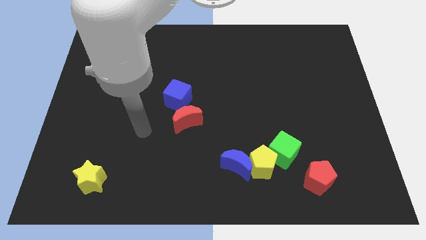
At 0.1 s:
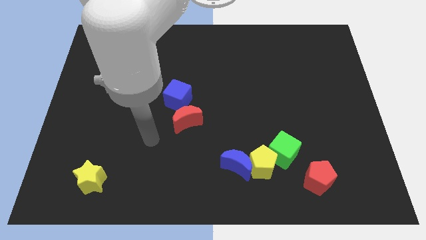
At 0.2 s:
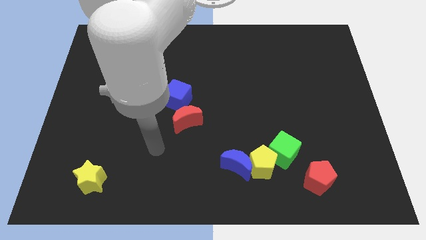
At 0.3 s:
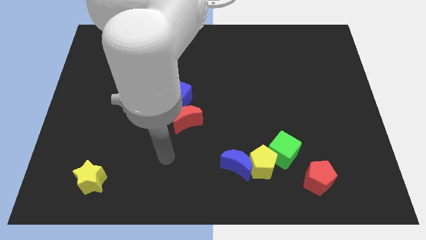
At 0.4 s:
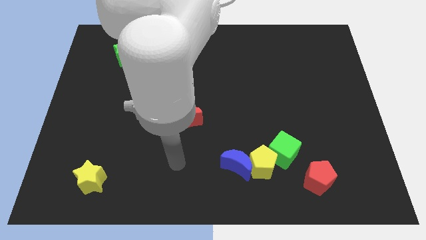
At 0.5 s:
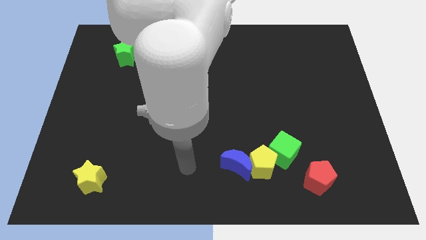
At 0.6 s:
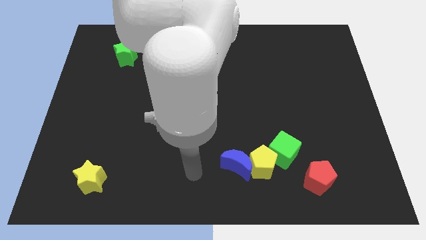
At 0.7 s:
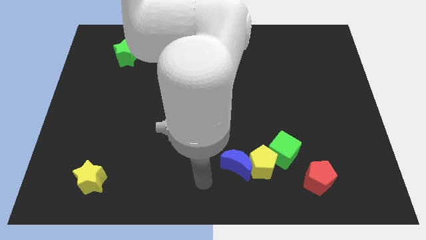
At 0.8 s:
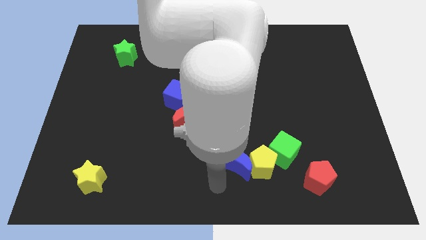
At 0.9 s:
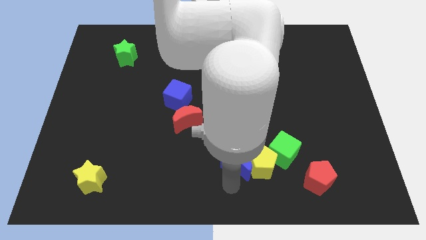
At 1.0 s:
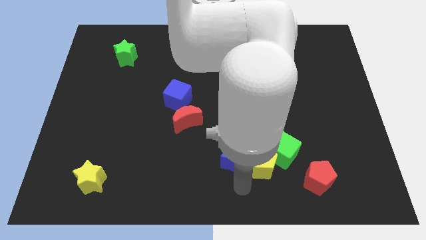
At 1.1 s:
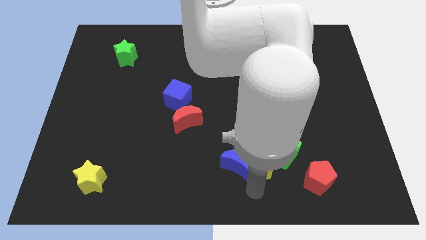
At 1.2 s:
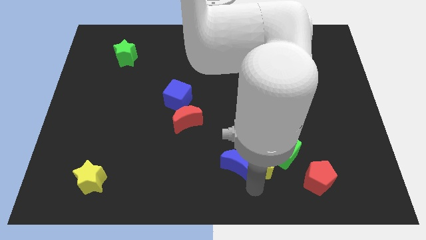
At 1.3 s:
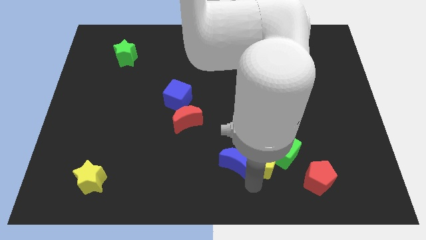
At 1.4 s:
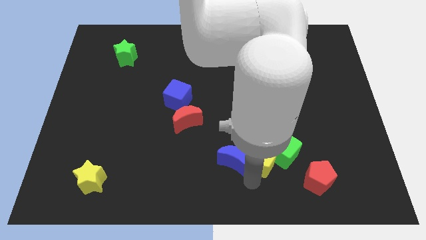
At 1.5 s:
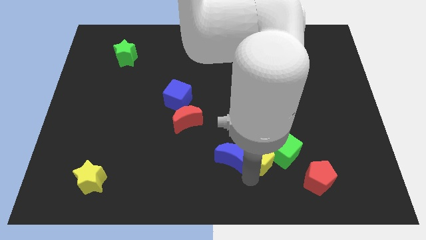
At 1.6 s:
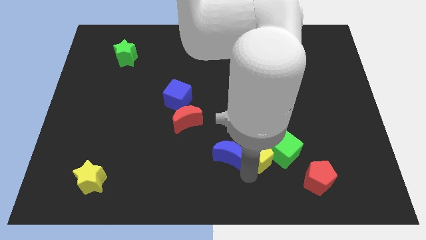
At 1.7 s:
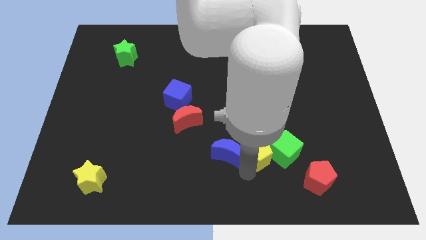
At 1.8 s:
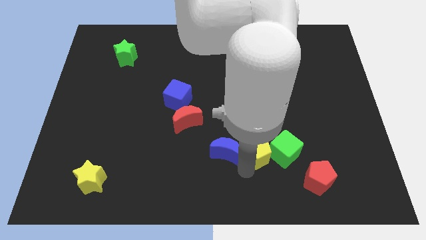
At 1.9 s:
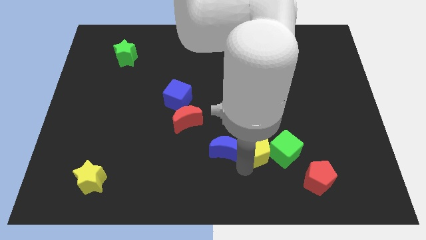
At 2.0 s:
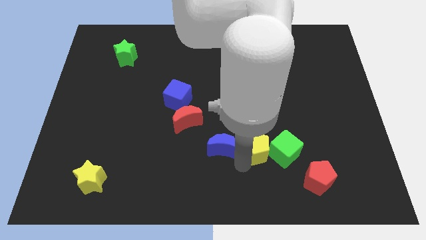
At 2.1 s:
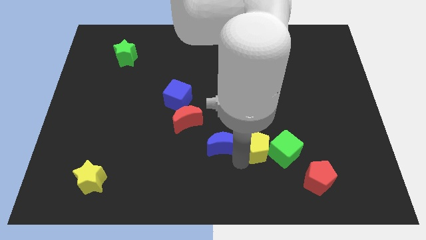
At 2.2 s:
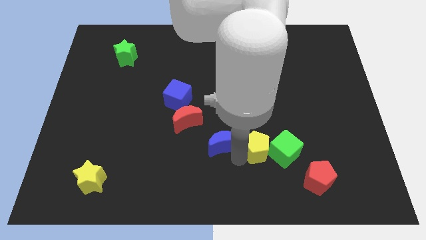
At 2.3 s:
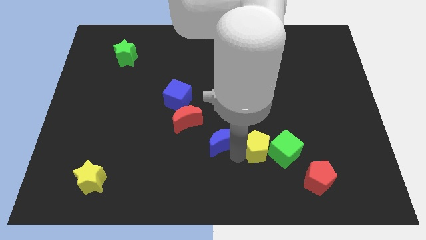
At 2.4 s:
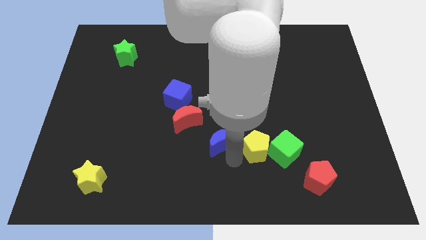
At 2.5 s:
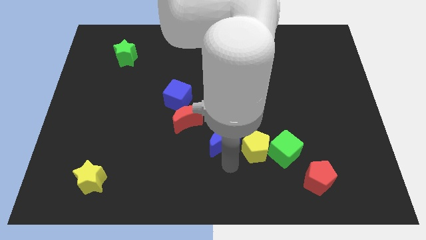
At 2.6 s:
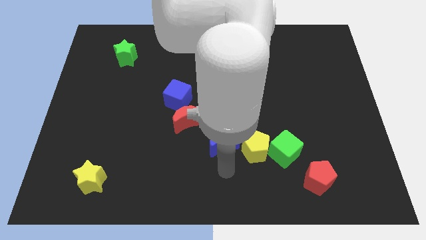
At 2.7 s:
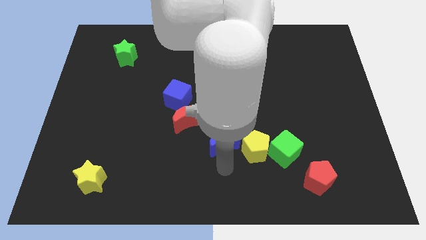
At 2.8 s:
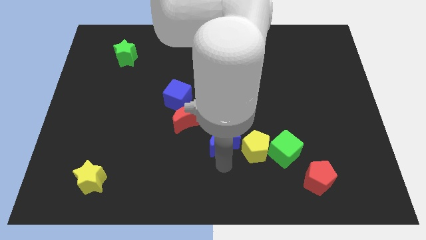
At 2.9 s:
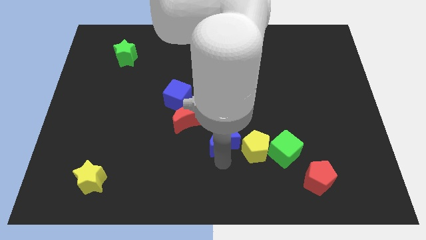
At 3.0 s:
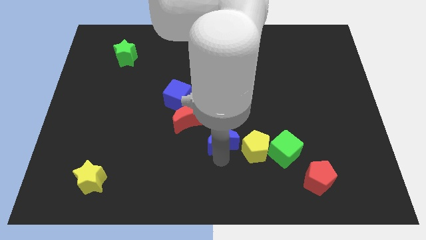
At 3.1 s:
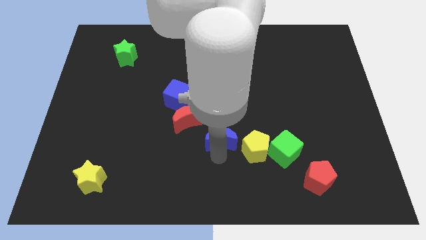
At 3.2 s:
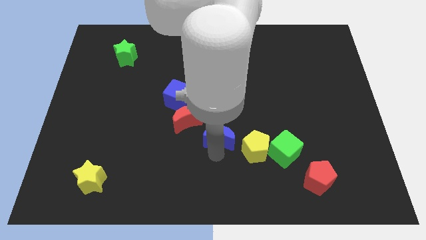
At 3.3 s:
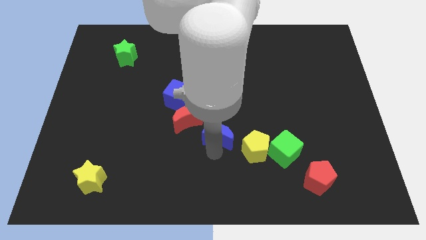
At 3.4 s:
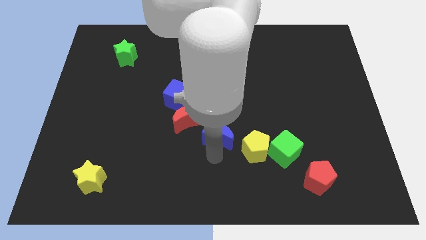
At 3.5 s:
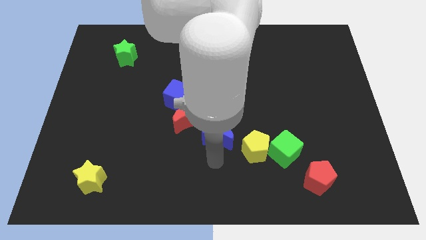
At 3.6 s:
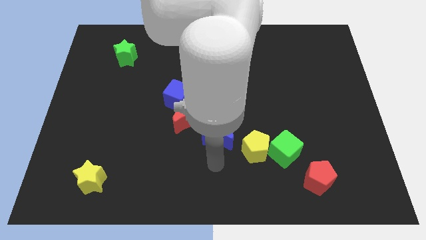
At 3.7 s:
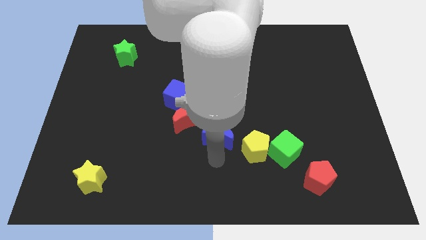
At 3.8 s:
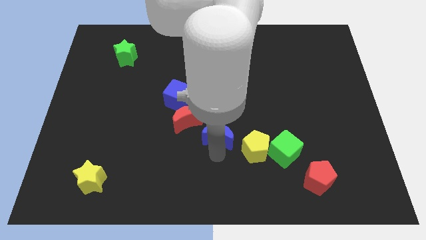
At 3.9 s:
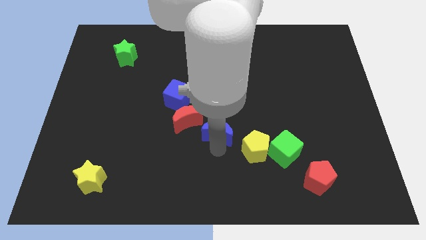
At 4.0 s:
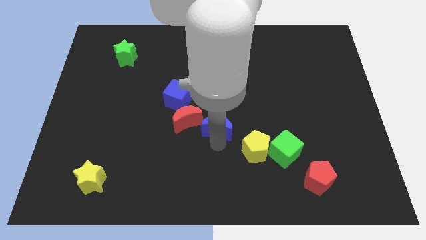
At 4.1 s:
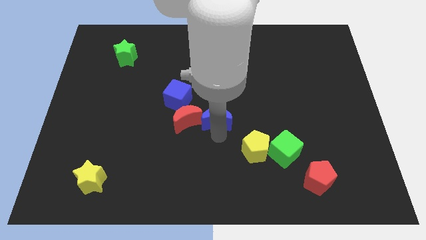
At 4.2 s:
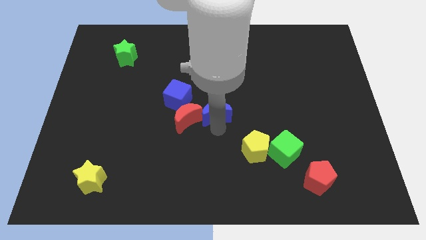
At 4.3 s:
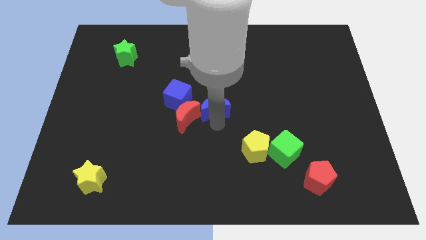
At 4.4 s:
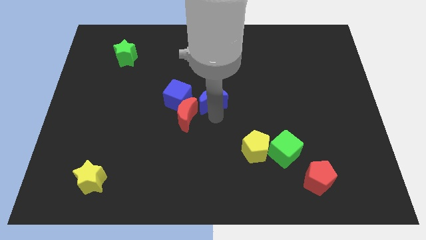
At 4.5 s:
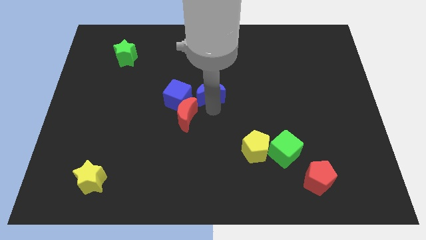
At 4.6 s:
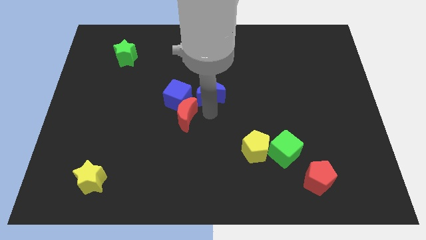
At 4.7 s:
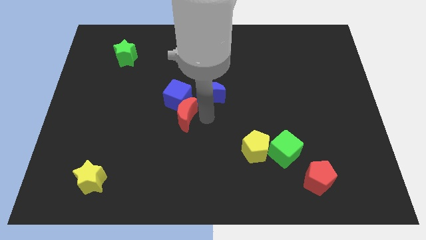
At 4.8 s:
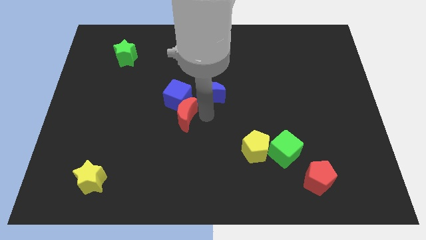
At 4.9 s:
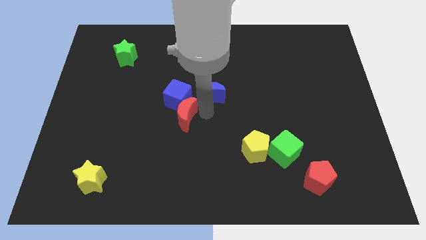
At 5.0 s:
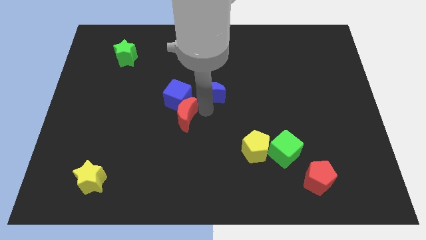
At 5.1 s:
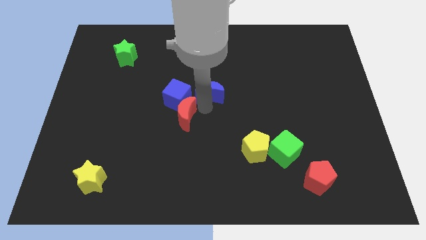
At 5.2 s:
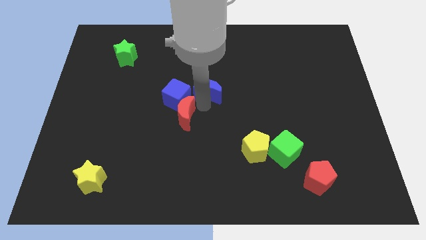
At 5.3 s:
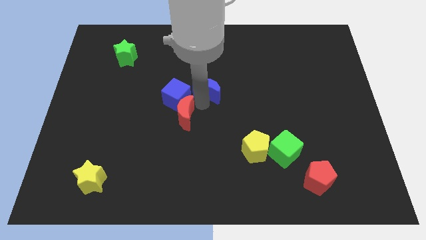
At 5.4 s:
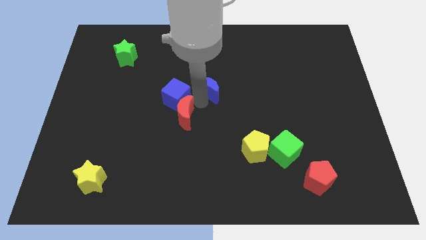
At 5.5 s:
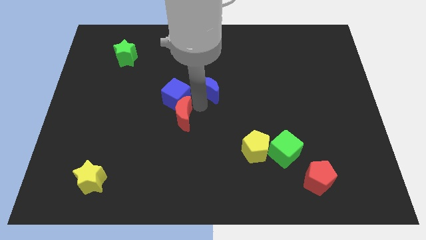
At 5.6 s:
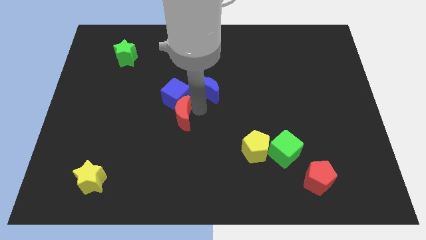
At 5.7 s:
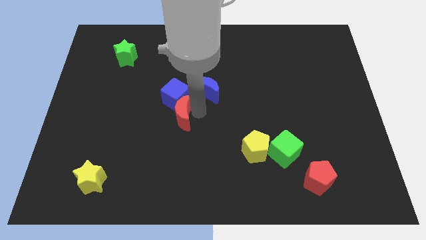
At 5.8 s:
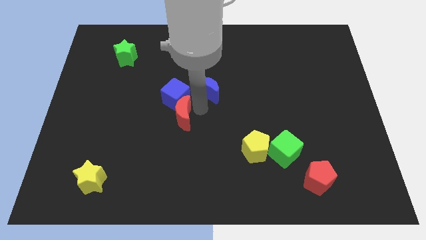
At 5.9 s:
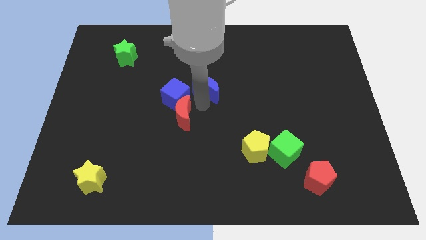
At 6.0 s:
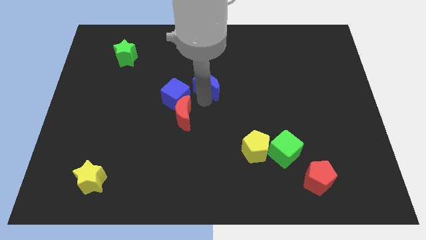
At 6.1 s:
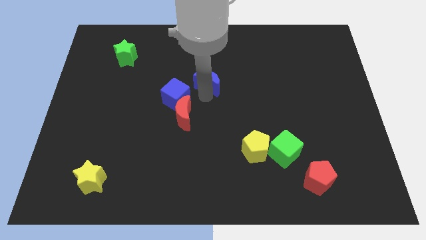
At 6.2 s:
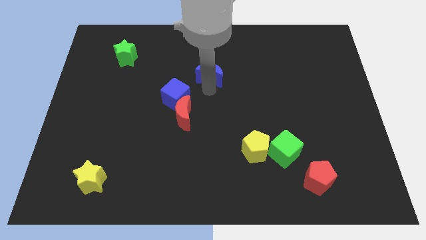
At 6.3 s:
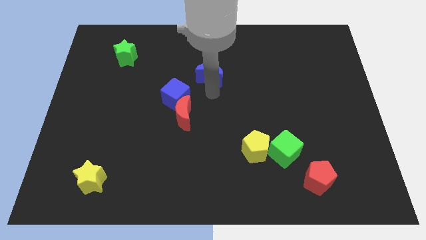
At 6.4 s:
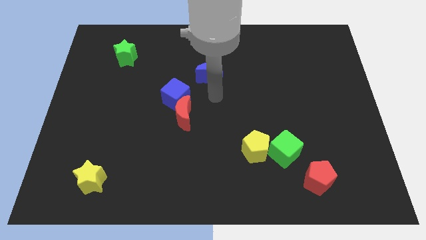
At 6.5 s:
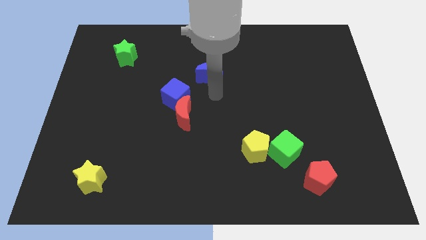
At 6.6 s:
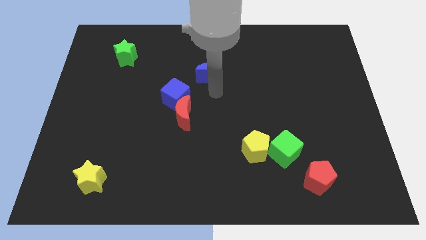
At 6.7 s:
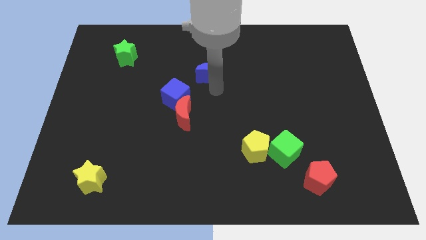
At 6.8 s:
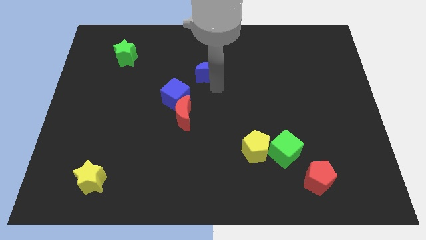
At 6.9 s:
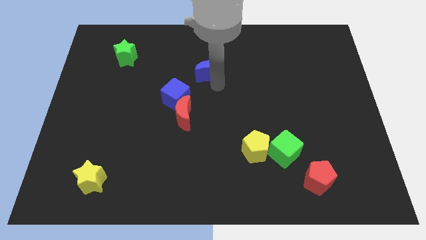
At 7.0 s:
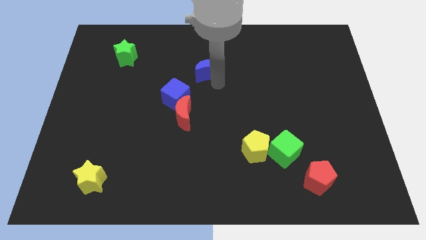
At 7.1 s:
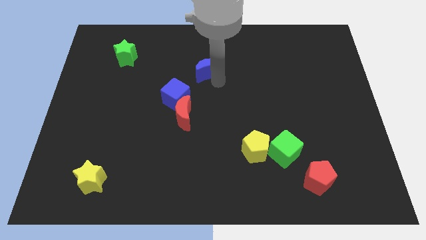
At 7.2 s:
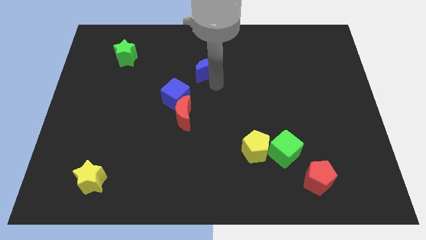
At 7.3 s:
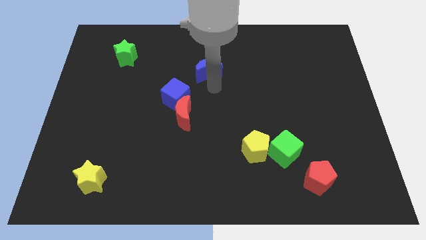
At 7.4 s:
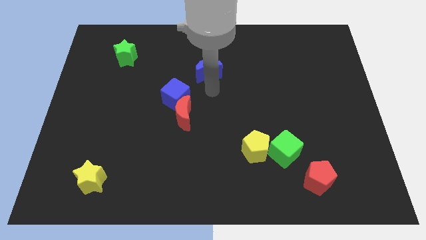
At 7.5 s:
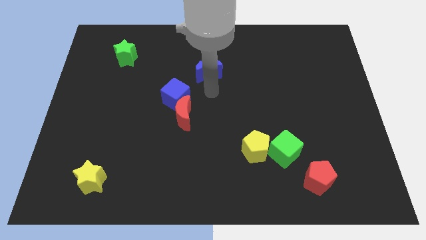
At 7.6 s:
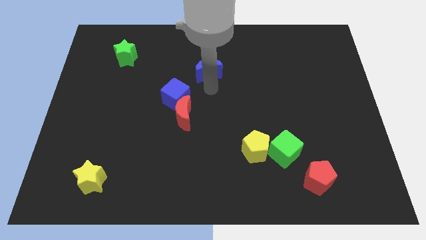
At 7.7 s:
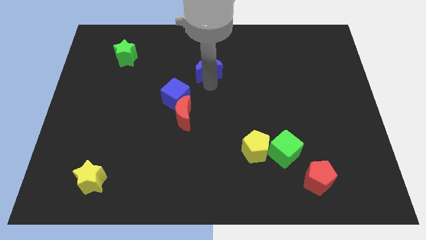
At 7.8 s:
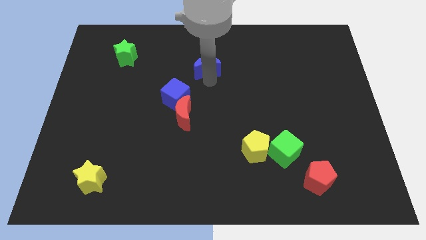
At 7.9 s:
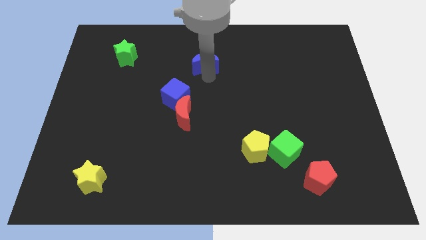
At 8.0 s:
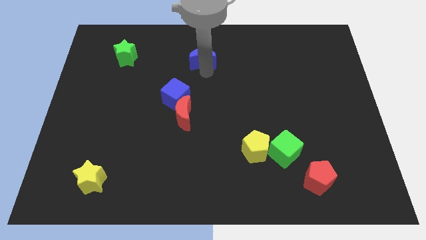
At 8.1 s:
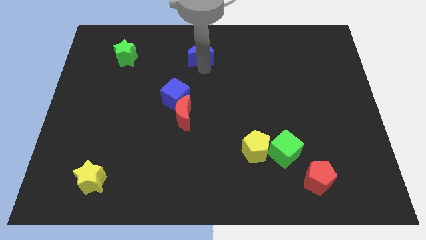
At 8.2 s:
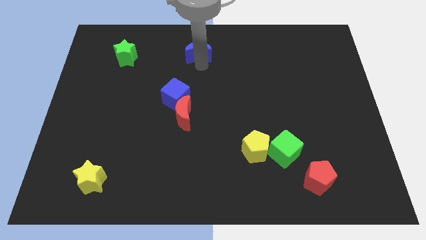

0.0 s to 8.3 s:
push the blue moon to the towards your base
